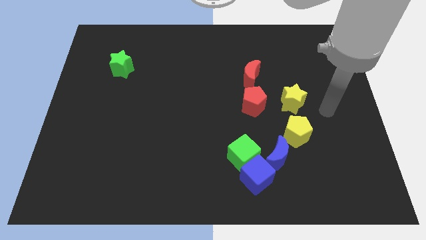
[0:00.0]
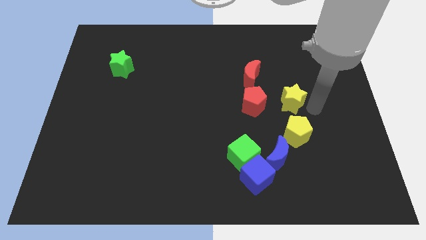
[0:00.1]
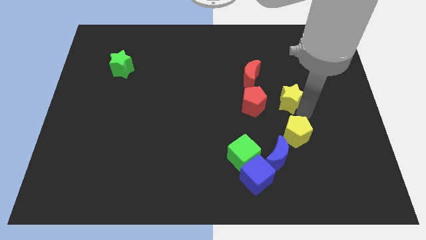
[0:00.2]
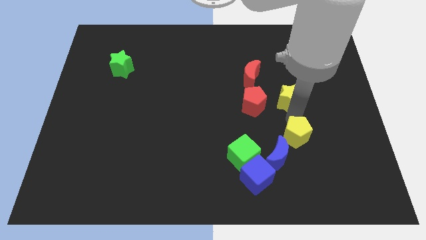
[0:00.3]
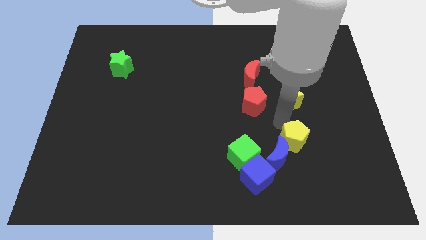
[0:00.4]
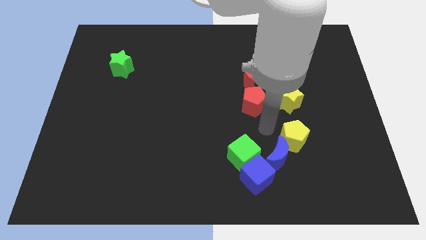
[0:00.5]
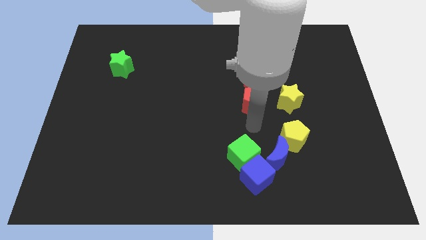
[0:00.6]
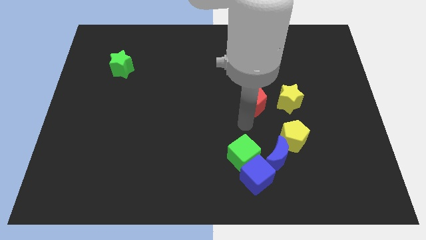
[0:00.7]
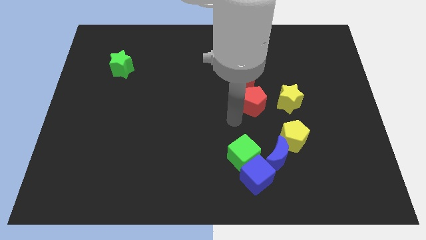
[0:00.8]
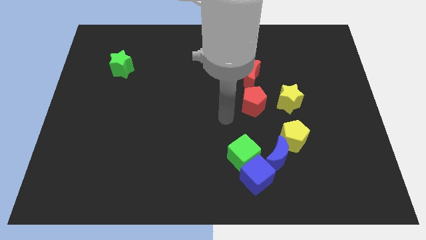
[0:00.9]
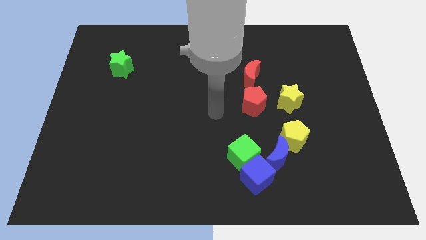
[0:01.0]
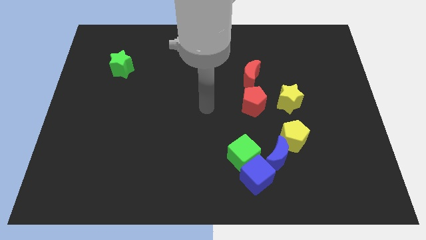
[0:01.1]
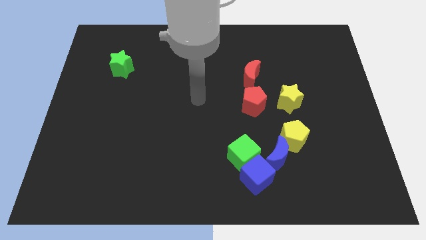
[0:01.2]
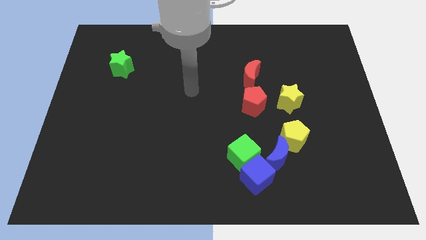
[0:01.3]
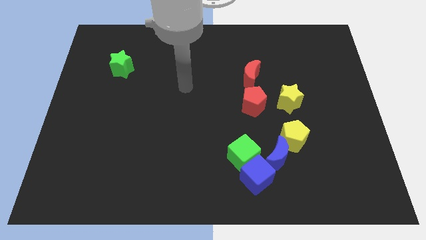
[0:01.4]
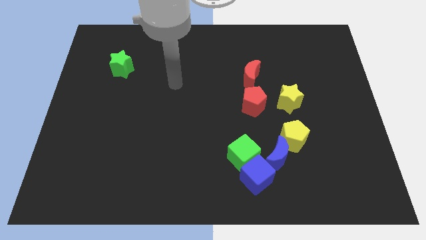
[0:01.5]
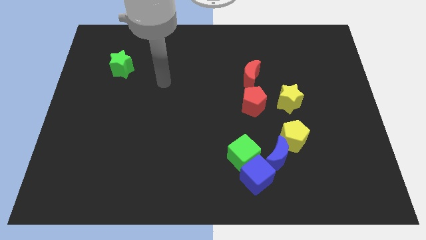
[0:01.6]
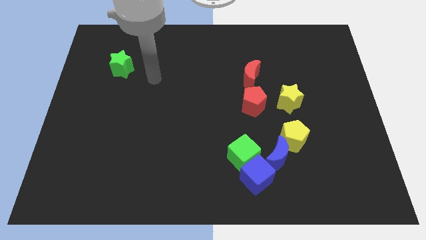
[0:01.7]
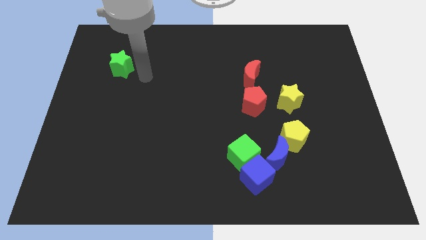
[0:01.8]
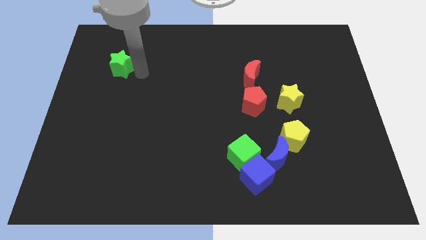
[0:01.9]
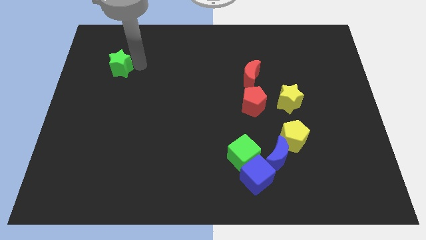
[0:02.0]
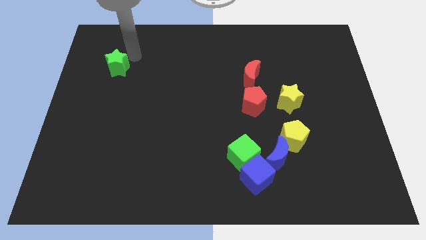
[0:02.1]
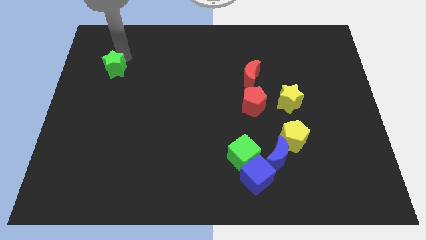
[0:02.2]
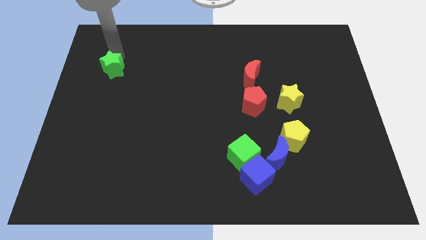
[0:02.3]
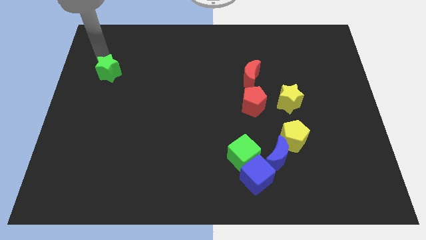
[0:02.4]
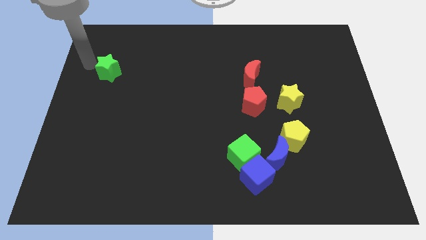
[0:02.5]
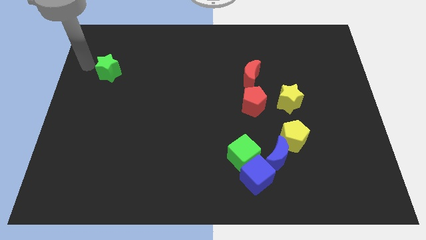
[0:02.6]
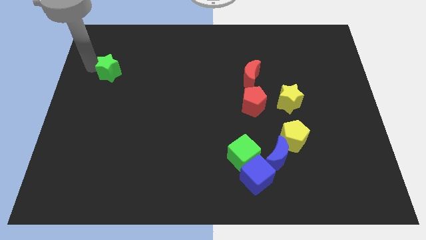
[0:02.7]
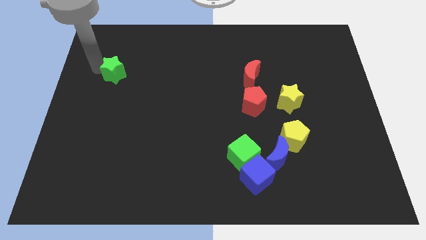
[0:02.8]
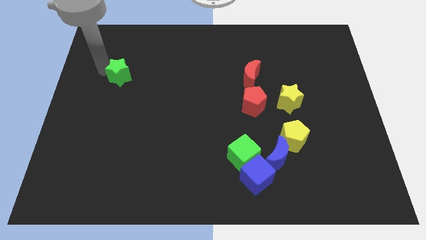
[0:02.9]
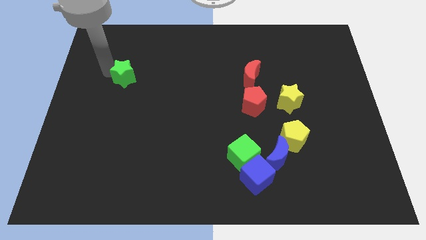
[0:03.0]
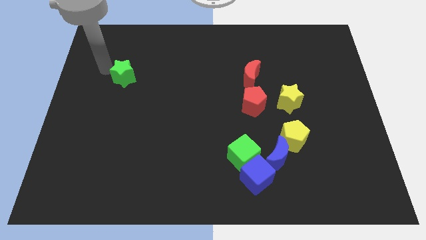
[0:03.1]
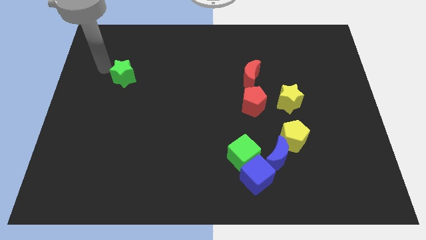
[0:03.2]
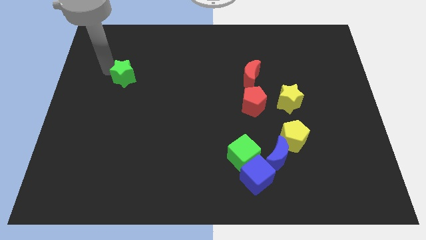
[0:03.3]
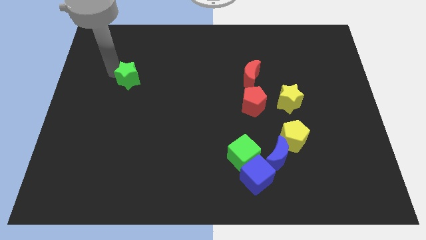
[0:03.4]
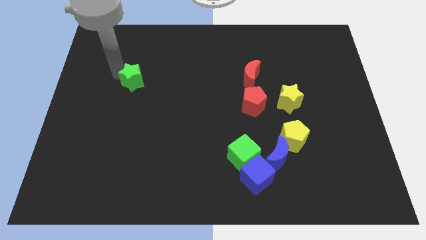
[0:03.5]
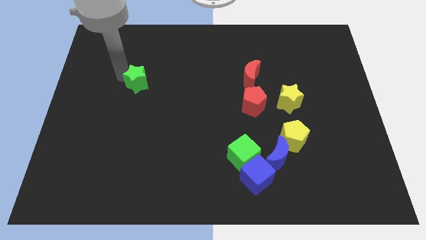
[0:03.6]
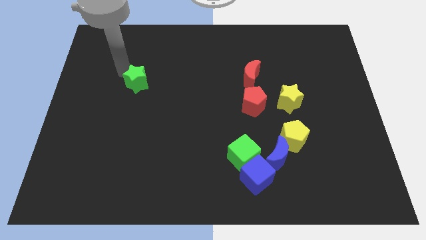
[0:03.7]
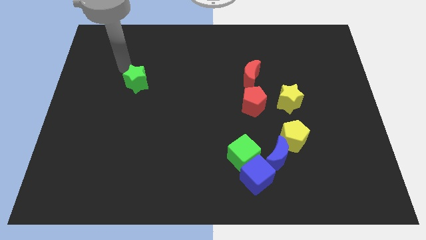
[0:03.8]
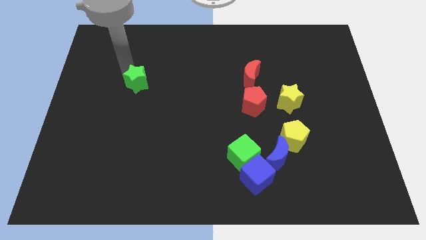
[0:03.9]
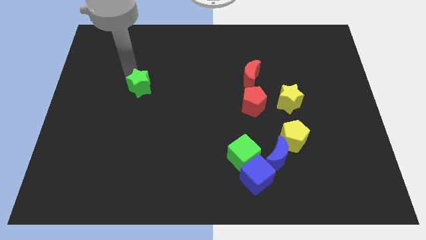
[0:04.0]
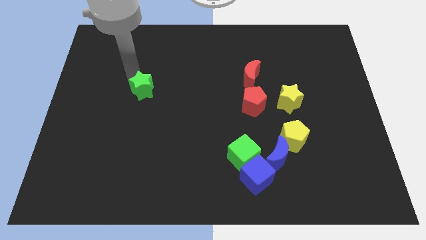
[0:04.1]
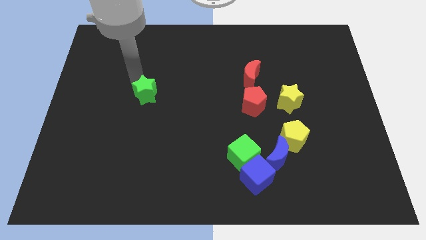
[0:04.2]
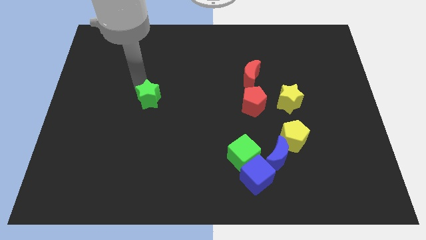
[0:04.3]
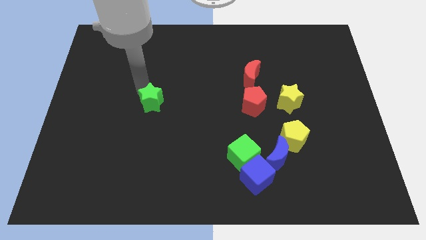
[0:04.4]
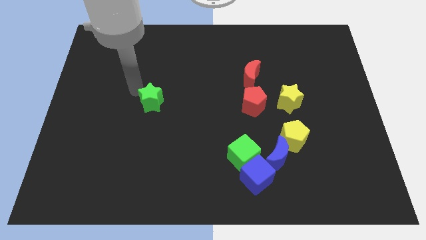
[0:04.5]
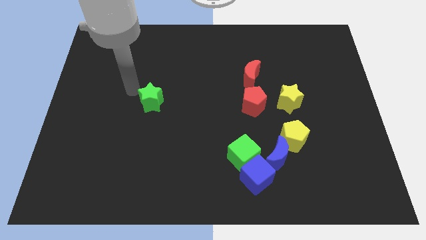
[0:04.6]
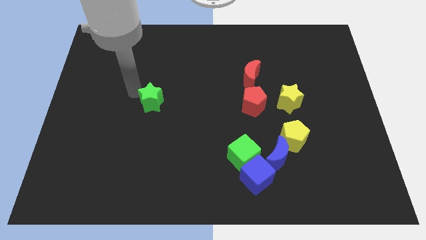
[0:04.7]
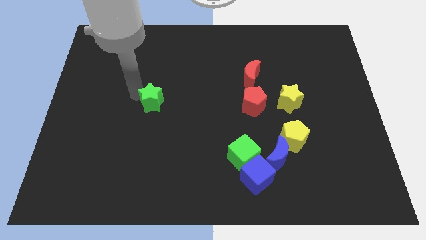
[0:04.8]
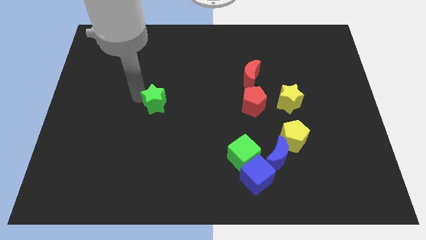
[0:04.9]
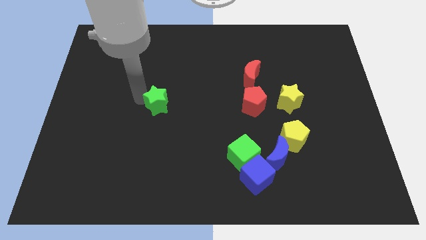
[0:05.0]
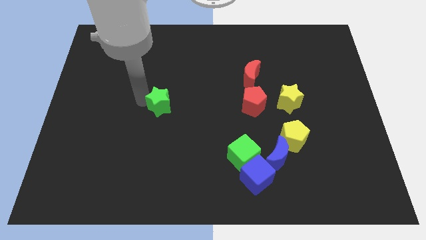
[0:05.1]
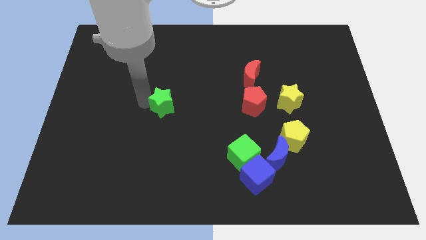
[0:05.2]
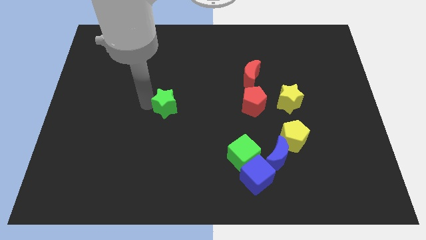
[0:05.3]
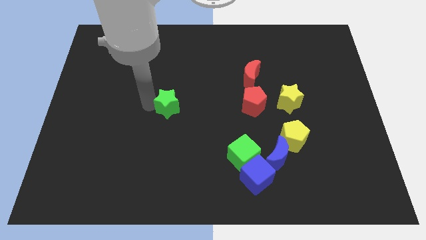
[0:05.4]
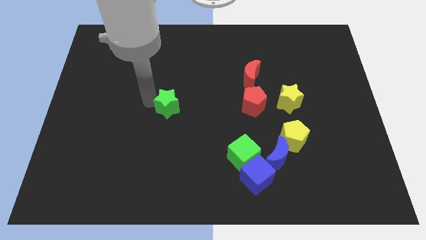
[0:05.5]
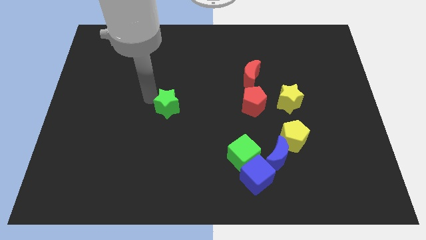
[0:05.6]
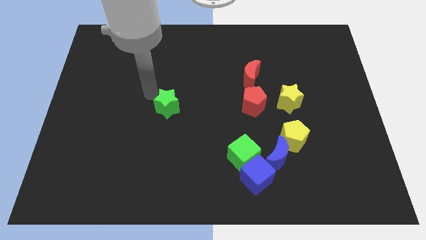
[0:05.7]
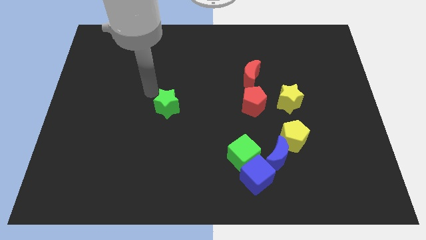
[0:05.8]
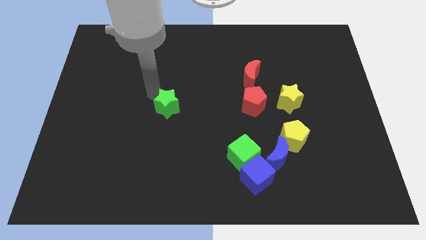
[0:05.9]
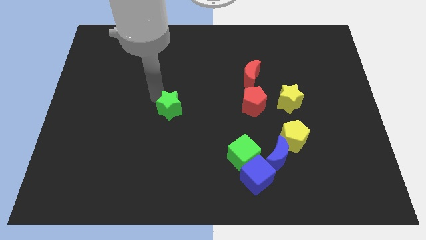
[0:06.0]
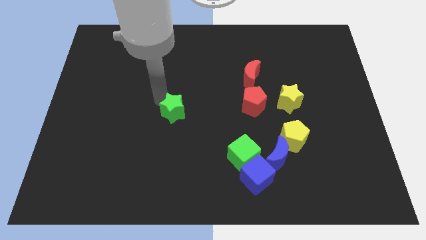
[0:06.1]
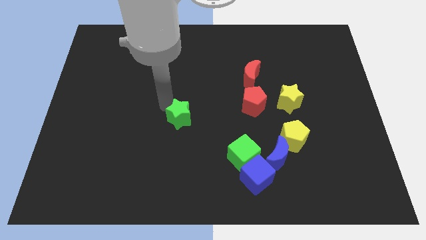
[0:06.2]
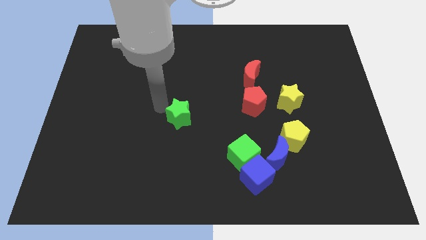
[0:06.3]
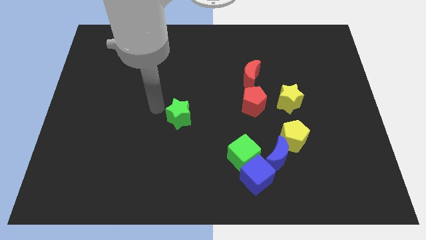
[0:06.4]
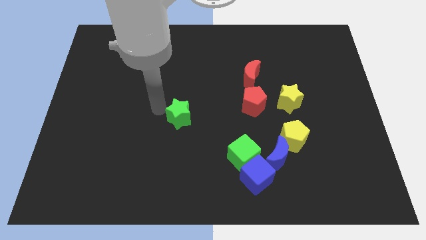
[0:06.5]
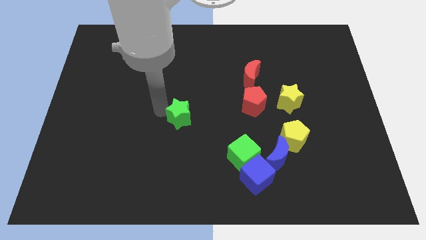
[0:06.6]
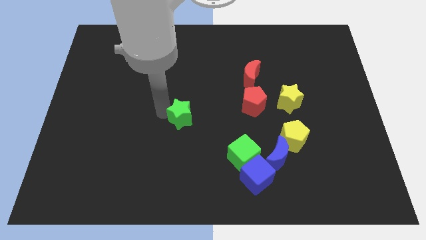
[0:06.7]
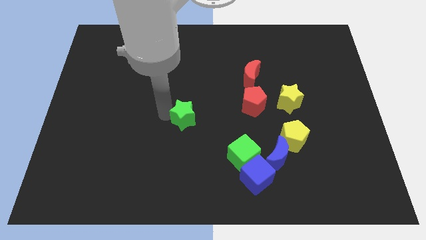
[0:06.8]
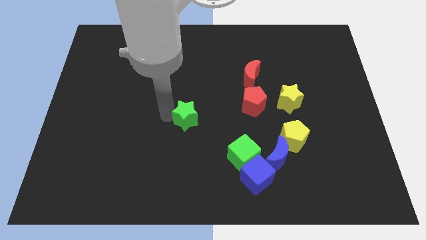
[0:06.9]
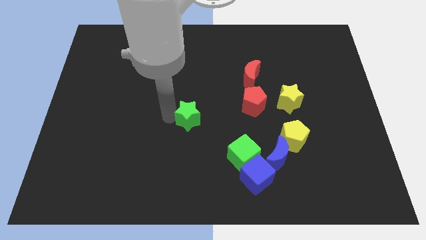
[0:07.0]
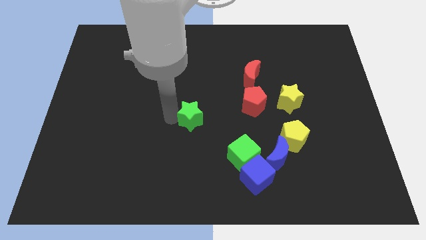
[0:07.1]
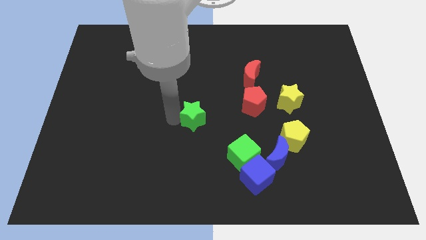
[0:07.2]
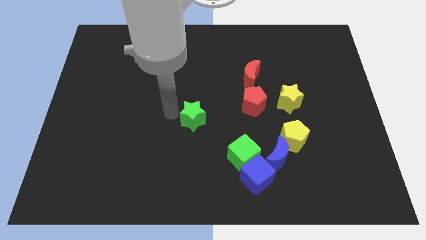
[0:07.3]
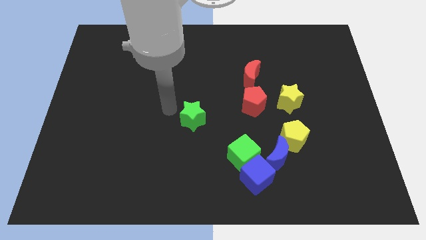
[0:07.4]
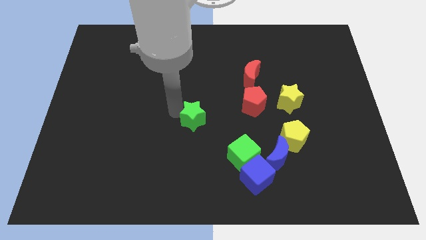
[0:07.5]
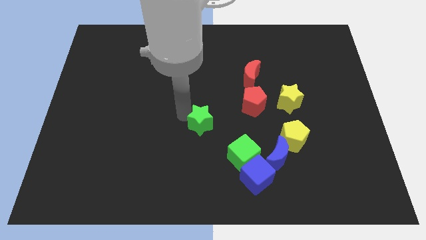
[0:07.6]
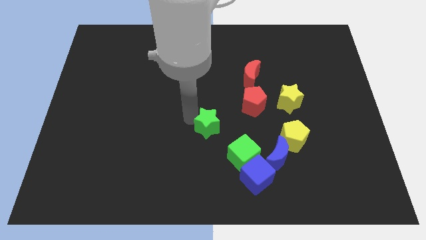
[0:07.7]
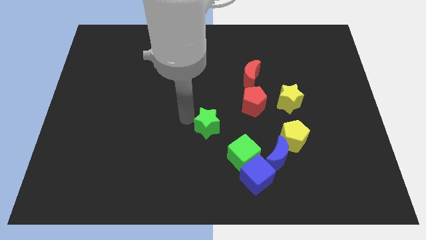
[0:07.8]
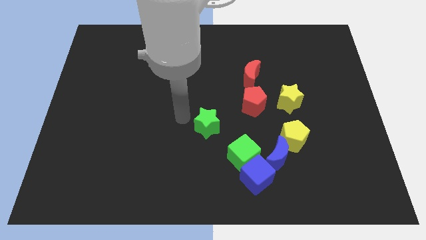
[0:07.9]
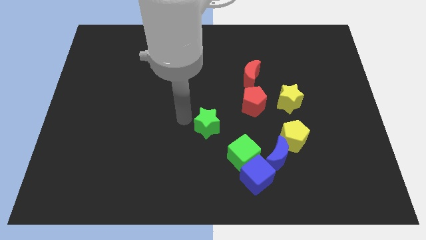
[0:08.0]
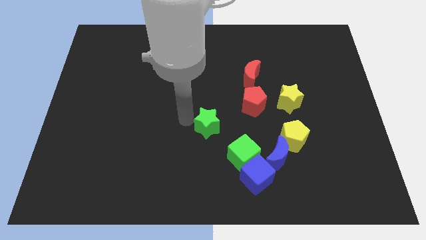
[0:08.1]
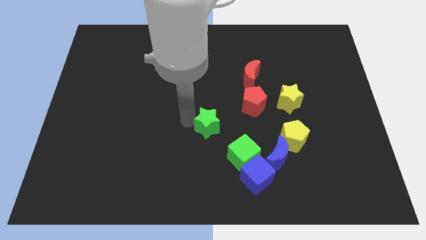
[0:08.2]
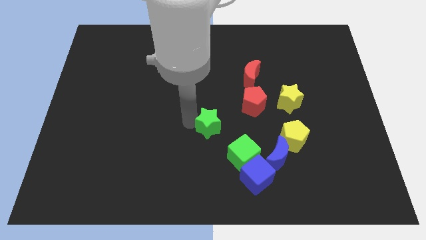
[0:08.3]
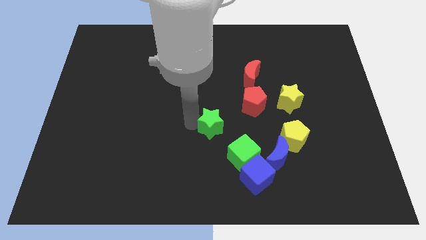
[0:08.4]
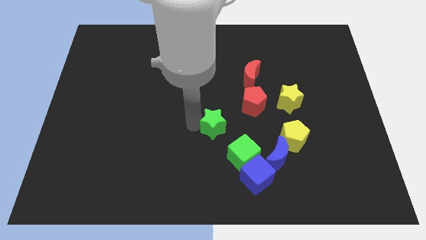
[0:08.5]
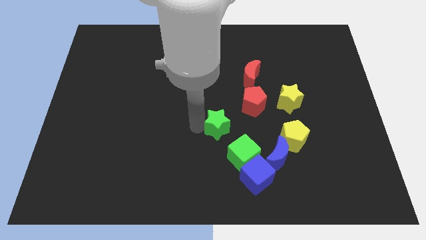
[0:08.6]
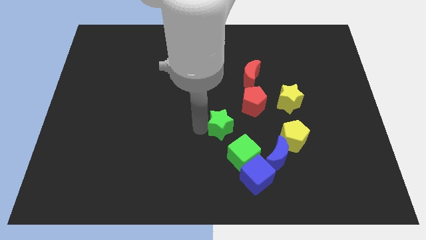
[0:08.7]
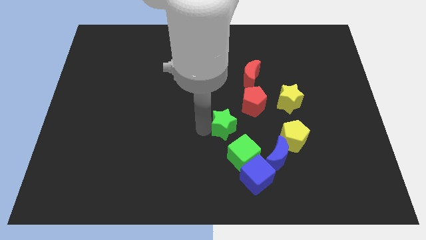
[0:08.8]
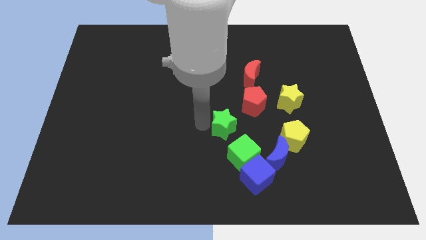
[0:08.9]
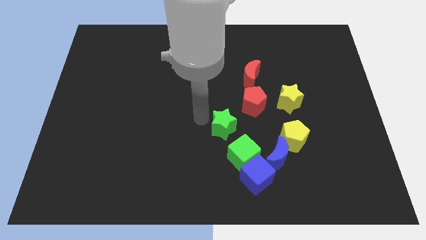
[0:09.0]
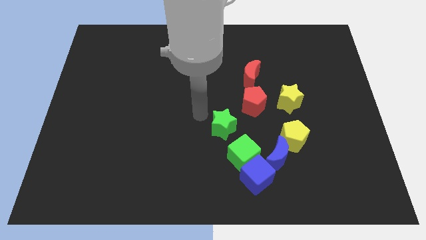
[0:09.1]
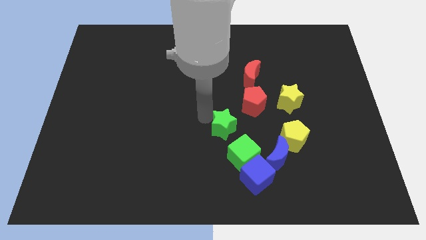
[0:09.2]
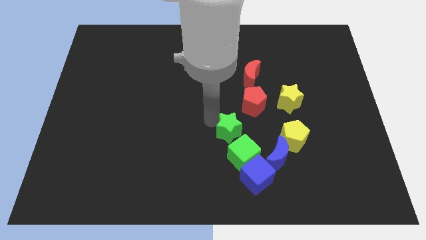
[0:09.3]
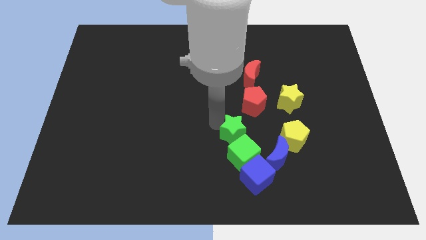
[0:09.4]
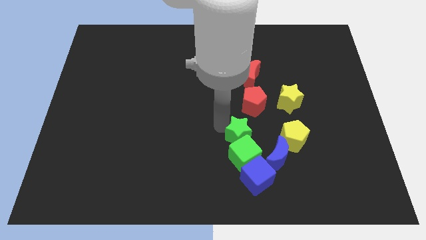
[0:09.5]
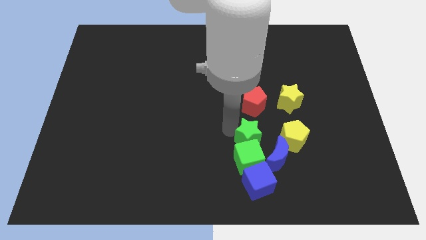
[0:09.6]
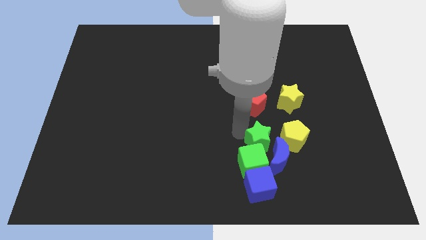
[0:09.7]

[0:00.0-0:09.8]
put the green star towards the blue moon
